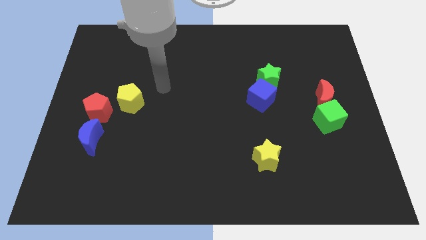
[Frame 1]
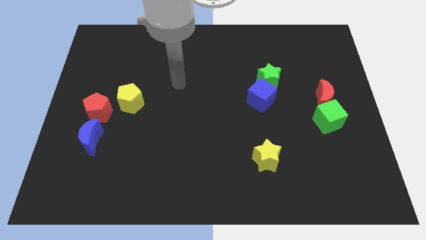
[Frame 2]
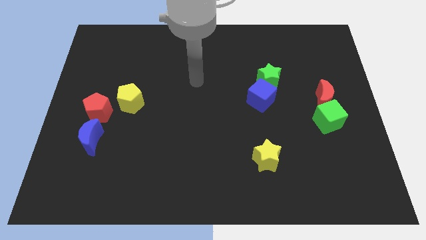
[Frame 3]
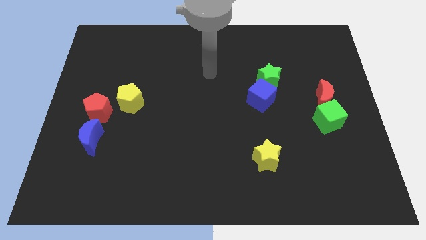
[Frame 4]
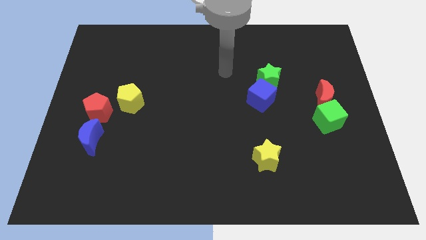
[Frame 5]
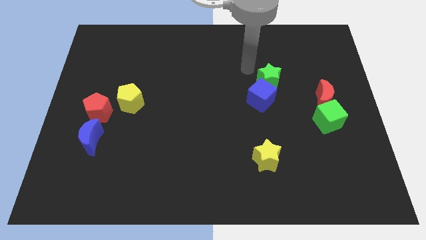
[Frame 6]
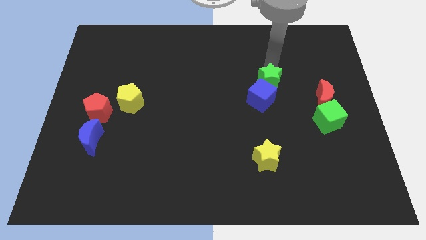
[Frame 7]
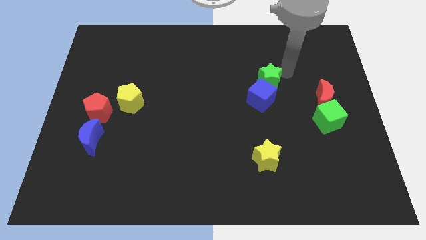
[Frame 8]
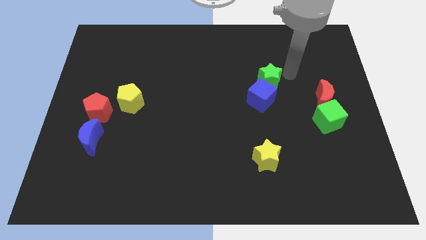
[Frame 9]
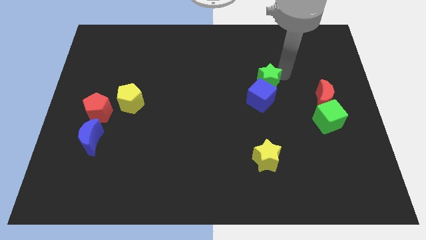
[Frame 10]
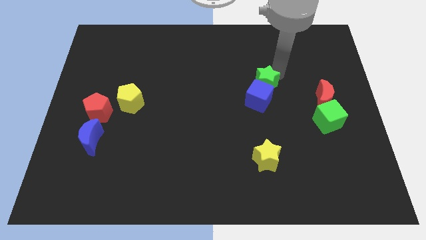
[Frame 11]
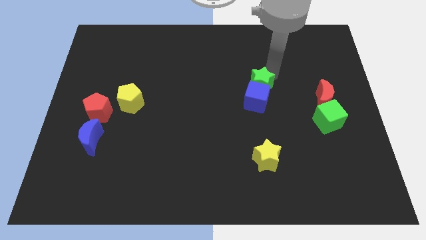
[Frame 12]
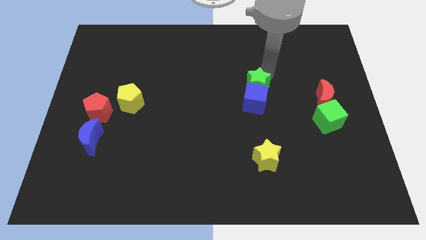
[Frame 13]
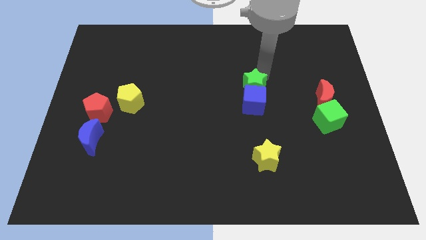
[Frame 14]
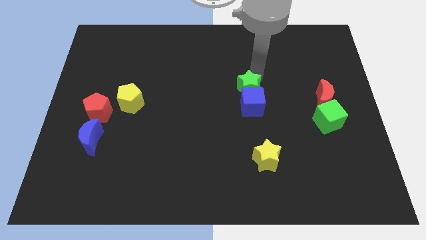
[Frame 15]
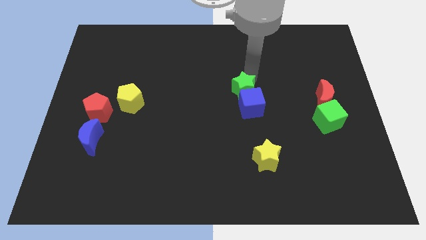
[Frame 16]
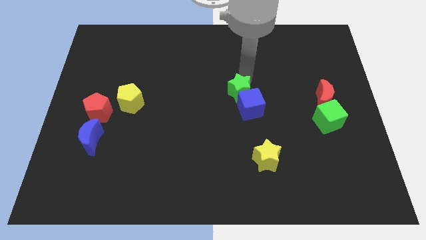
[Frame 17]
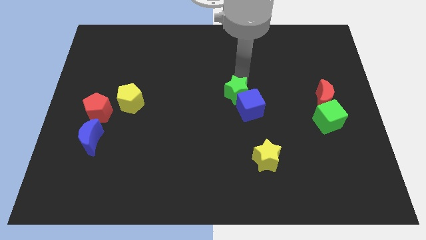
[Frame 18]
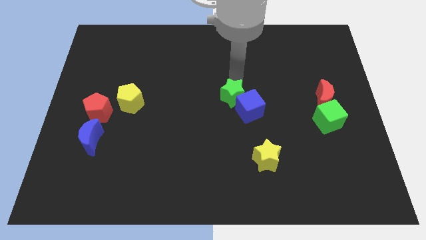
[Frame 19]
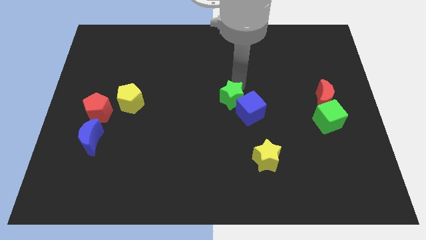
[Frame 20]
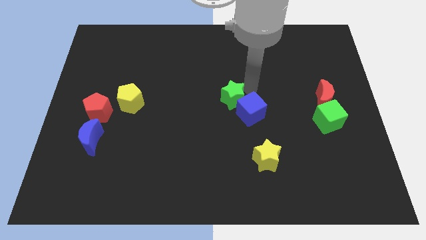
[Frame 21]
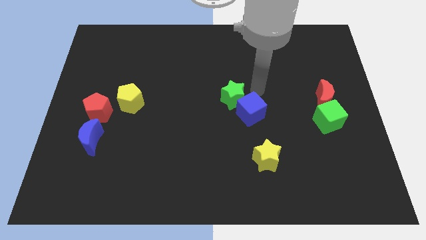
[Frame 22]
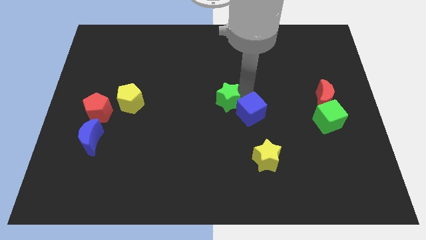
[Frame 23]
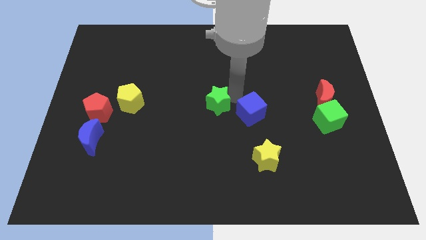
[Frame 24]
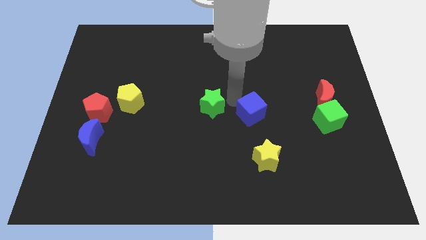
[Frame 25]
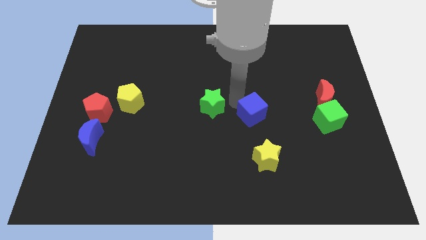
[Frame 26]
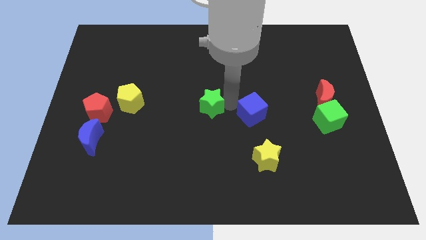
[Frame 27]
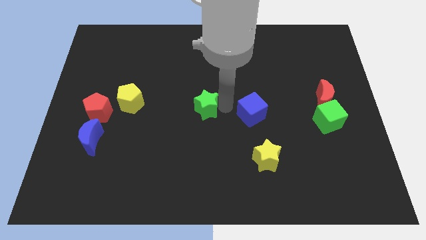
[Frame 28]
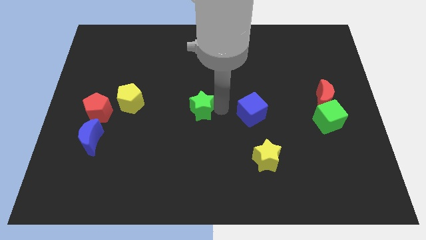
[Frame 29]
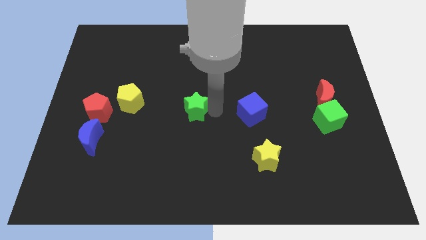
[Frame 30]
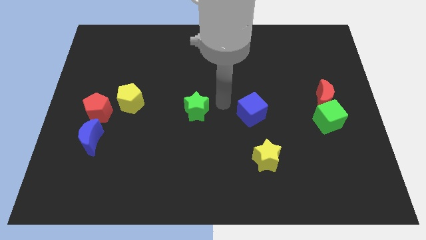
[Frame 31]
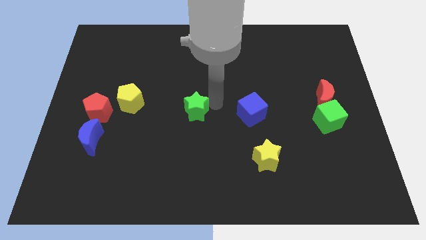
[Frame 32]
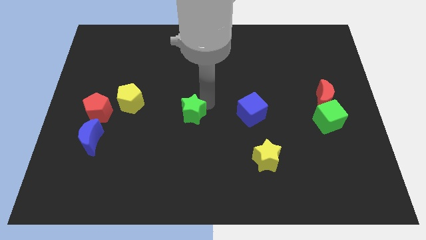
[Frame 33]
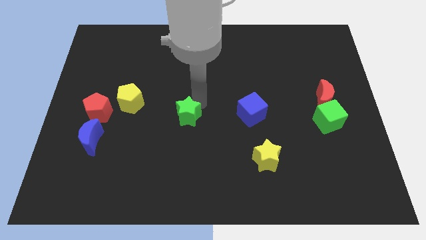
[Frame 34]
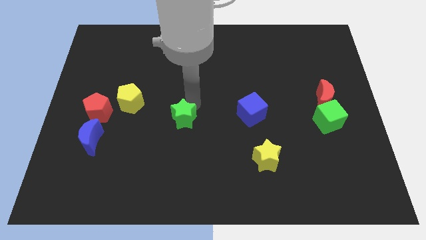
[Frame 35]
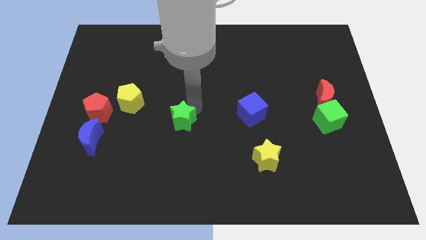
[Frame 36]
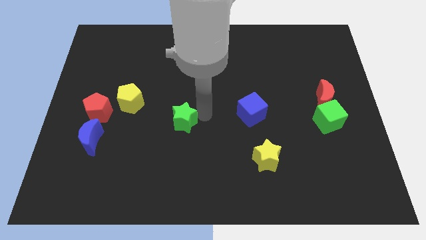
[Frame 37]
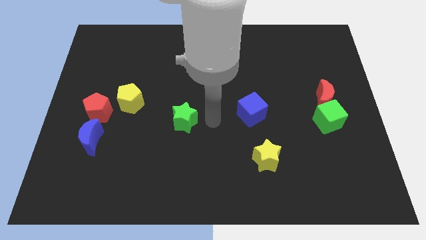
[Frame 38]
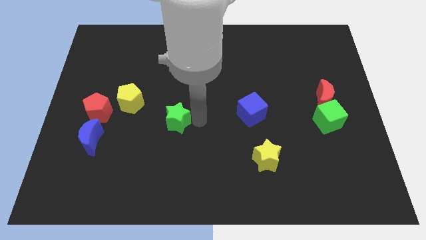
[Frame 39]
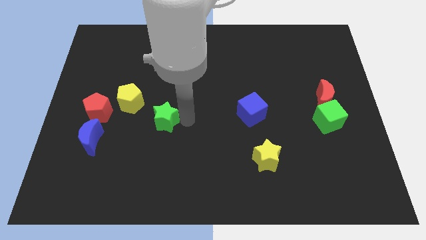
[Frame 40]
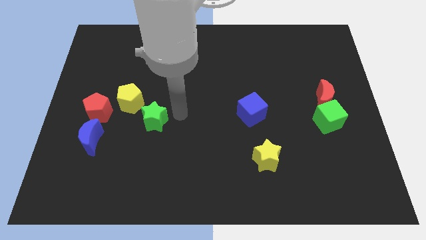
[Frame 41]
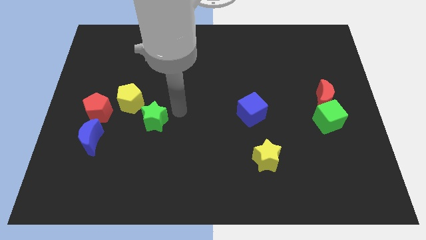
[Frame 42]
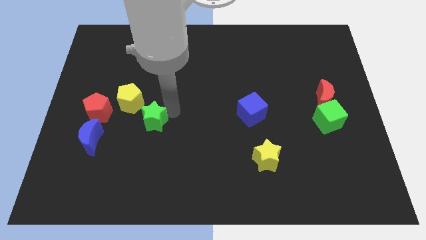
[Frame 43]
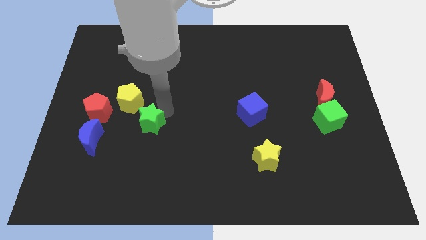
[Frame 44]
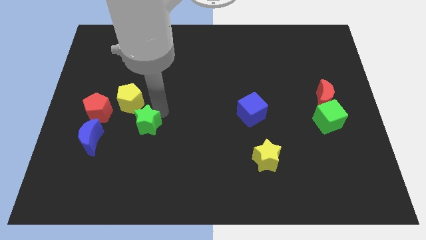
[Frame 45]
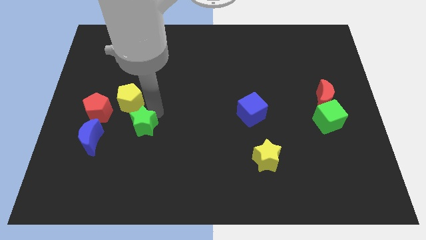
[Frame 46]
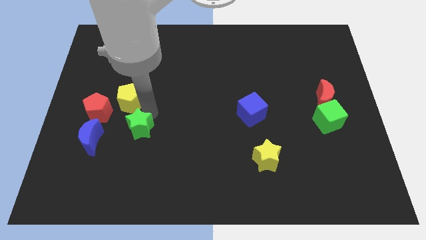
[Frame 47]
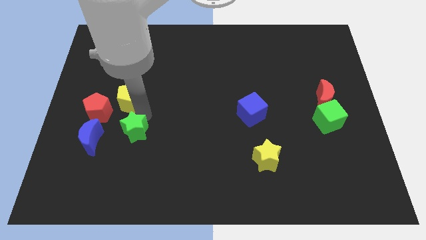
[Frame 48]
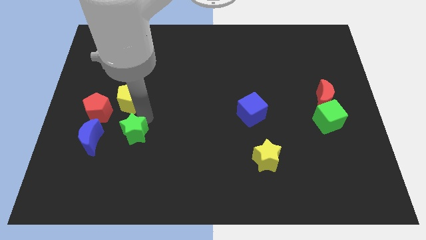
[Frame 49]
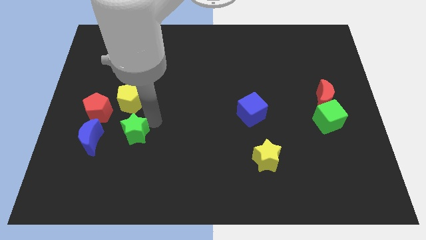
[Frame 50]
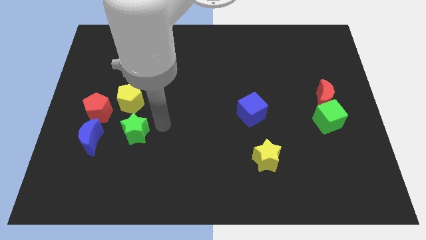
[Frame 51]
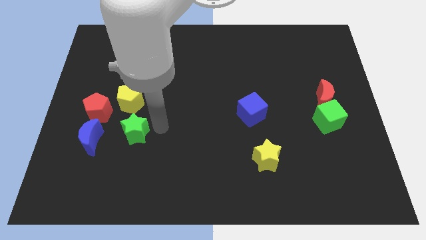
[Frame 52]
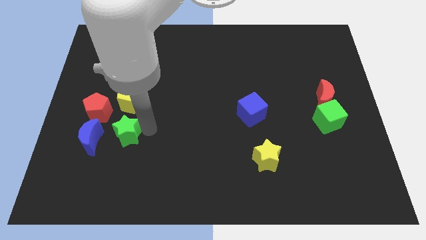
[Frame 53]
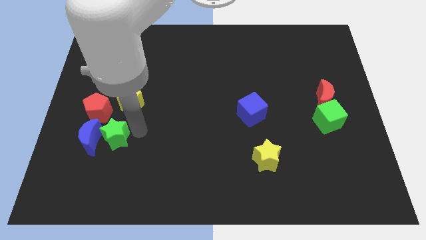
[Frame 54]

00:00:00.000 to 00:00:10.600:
put the green star to the blue moon

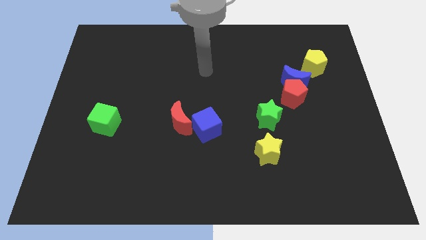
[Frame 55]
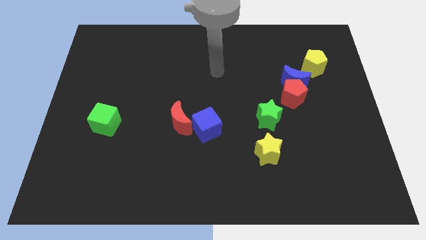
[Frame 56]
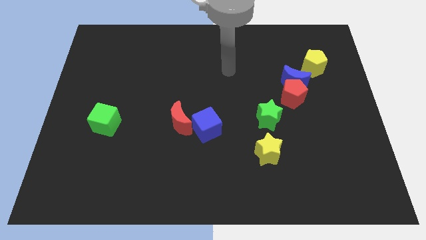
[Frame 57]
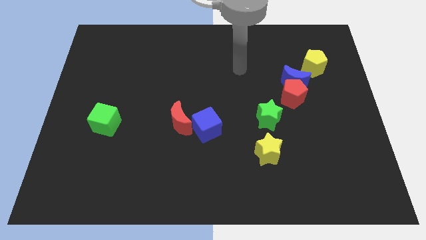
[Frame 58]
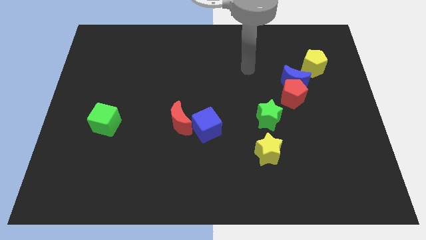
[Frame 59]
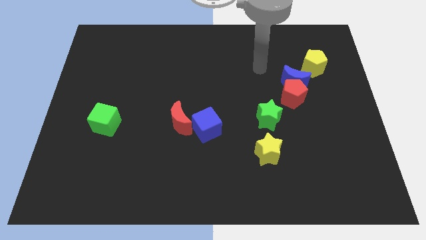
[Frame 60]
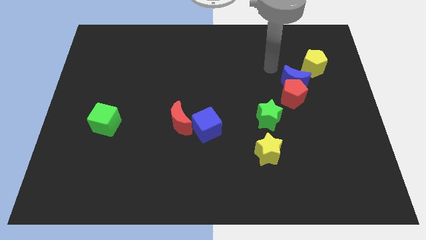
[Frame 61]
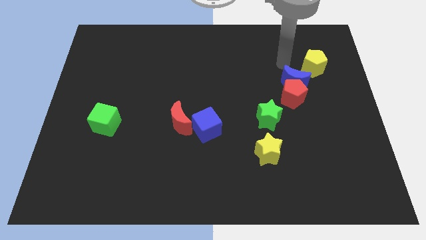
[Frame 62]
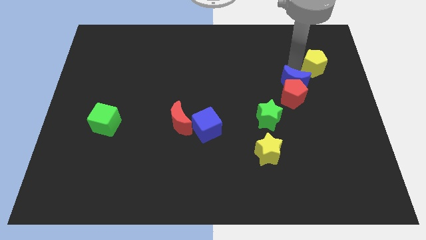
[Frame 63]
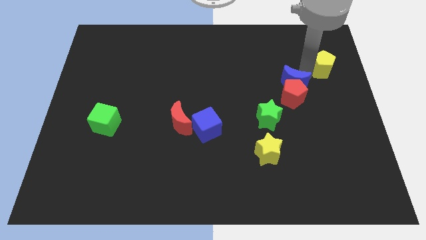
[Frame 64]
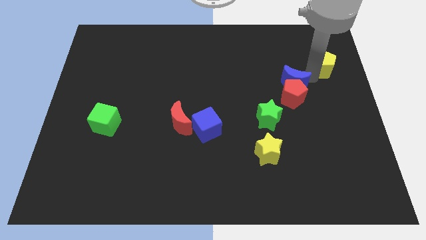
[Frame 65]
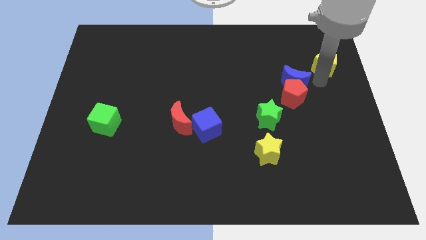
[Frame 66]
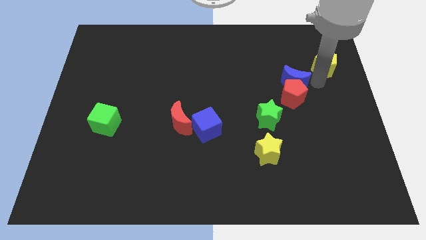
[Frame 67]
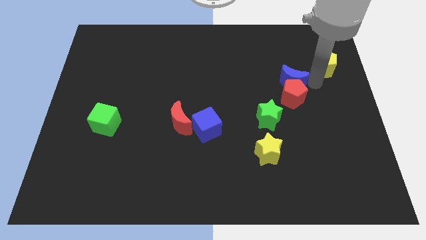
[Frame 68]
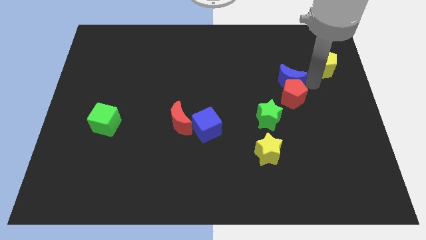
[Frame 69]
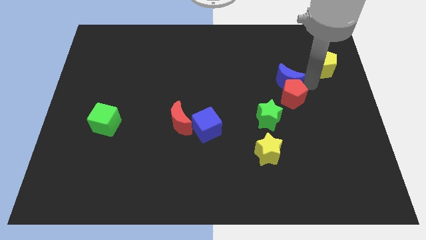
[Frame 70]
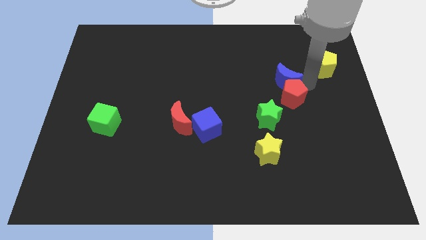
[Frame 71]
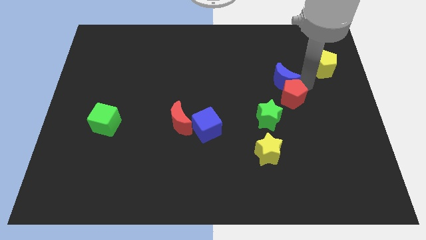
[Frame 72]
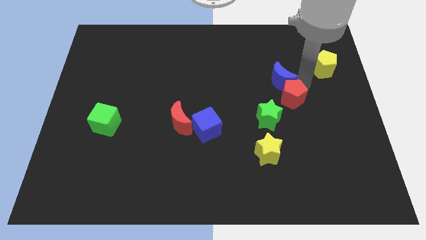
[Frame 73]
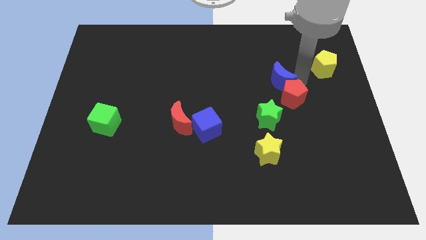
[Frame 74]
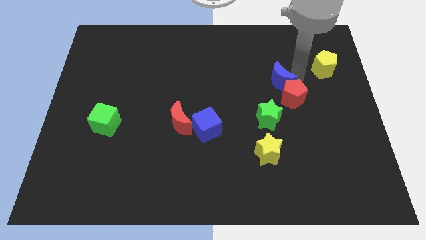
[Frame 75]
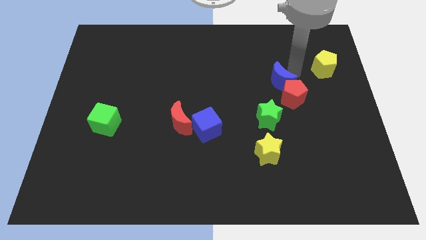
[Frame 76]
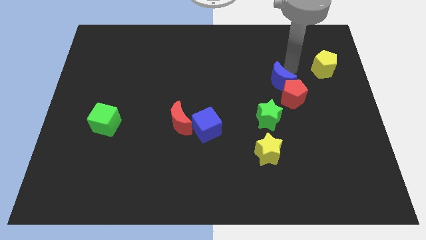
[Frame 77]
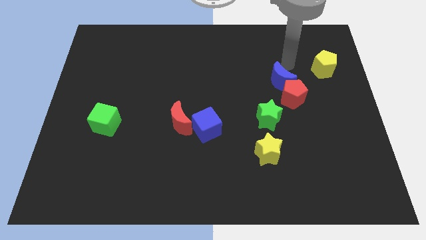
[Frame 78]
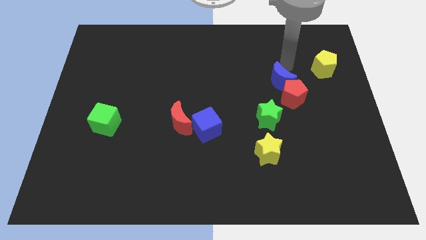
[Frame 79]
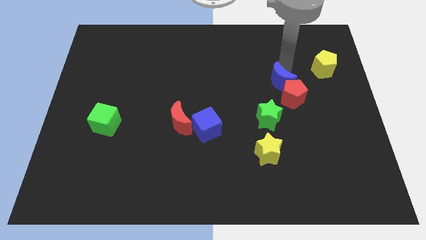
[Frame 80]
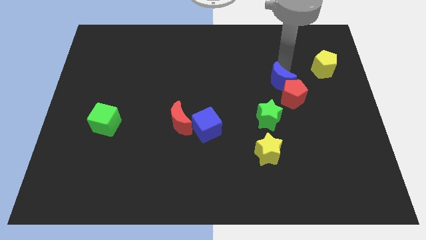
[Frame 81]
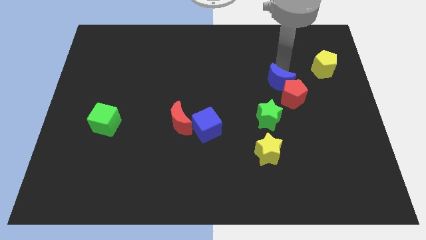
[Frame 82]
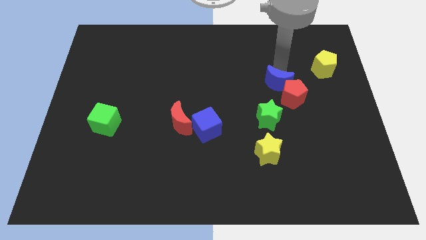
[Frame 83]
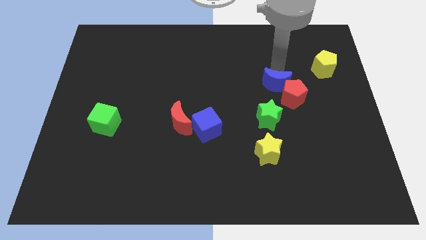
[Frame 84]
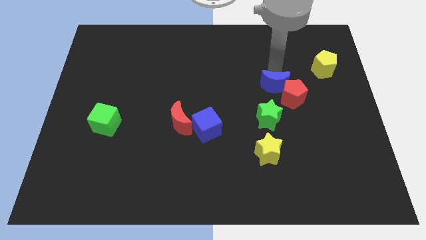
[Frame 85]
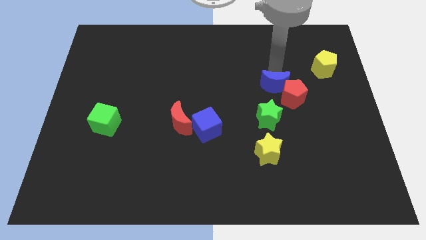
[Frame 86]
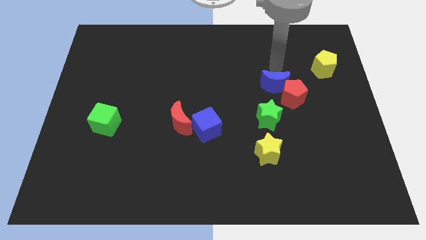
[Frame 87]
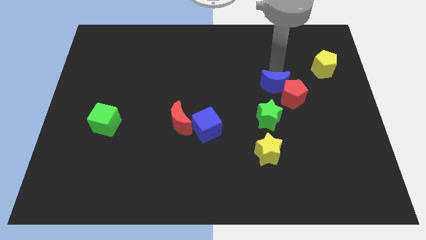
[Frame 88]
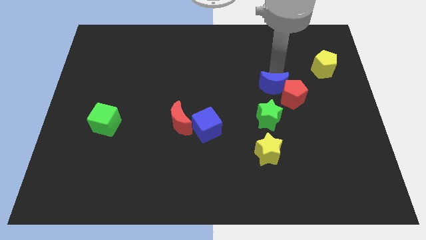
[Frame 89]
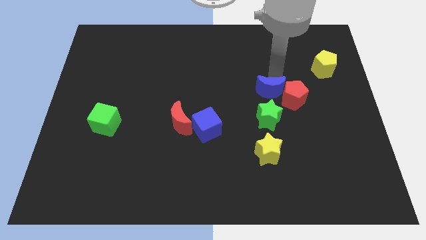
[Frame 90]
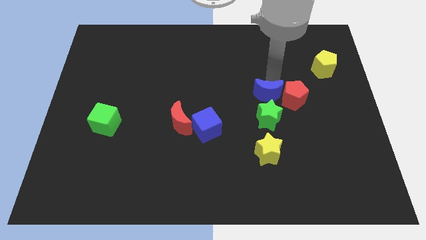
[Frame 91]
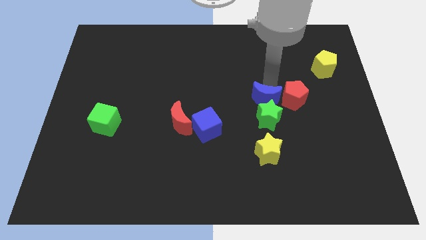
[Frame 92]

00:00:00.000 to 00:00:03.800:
put the blue moon next to the green star
